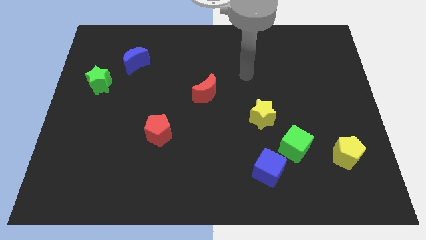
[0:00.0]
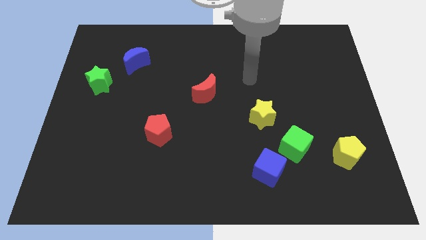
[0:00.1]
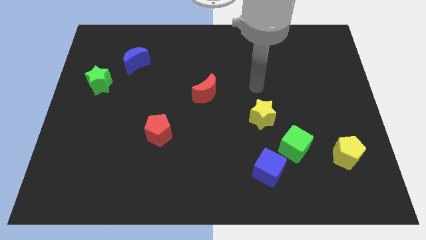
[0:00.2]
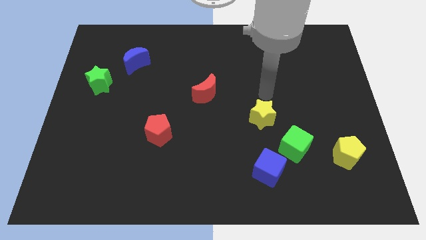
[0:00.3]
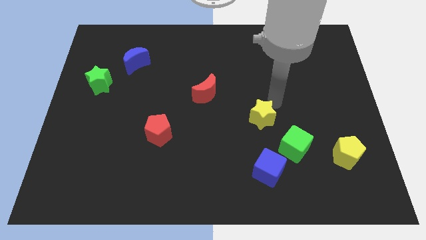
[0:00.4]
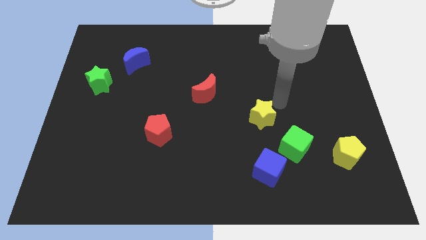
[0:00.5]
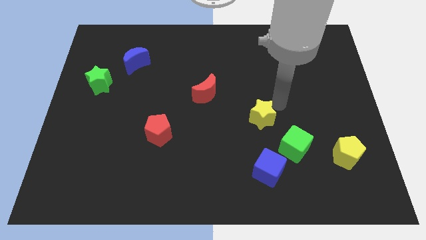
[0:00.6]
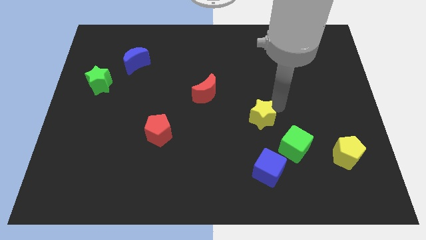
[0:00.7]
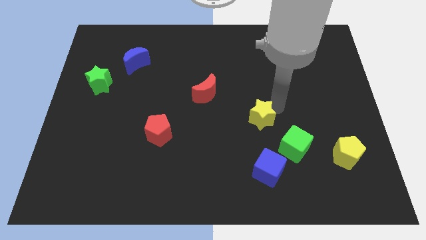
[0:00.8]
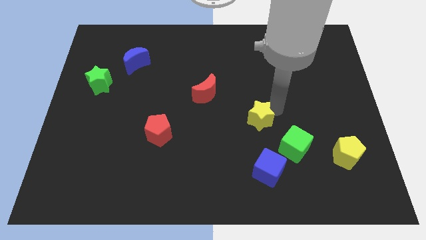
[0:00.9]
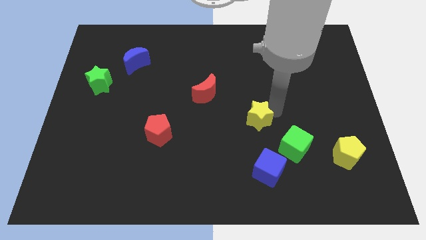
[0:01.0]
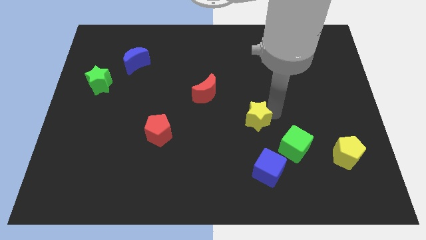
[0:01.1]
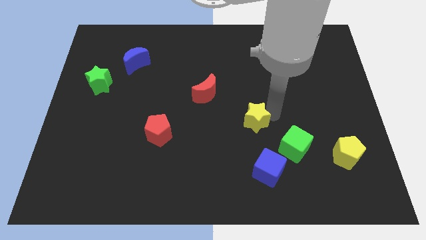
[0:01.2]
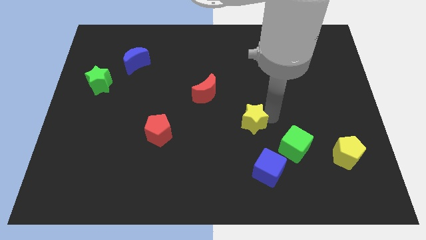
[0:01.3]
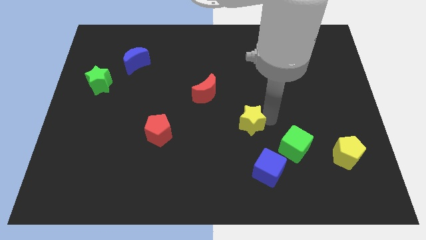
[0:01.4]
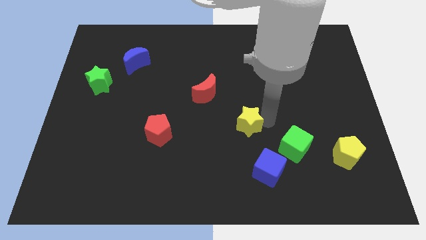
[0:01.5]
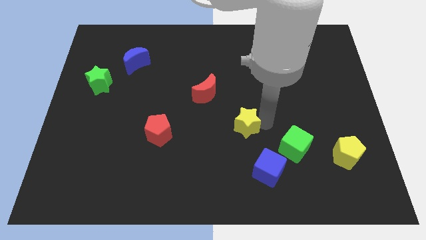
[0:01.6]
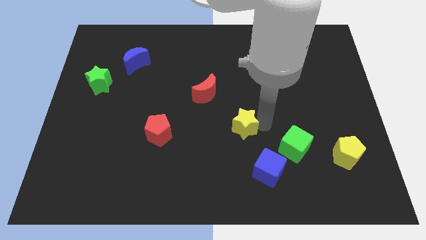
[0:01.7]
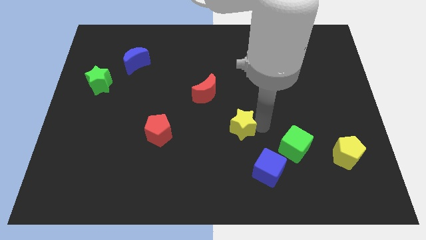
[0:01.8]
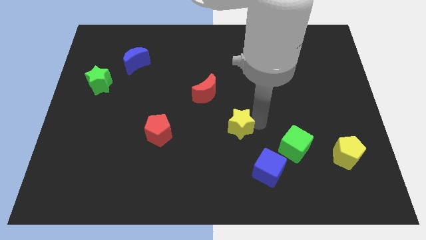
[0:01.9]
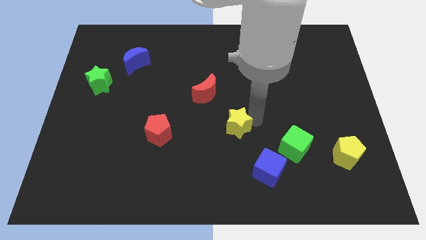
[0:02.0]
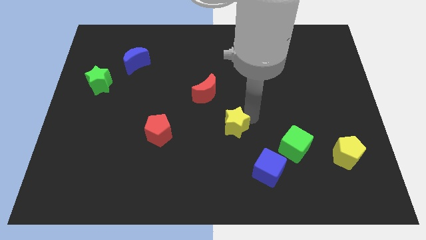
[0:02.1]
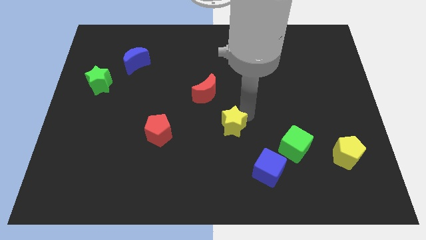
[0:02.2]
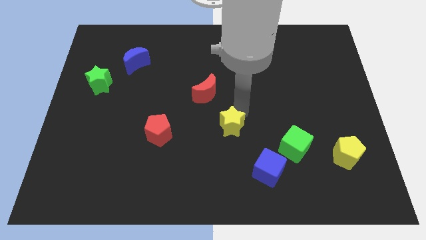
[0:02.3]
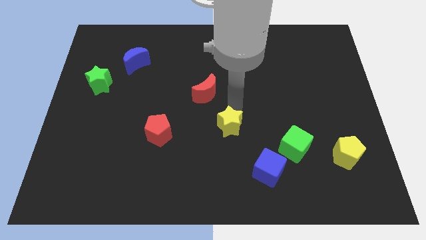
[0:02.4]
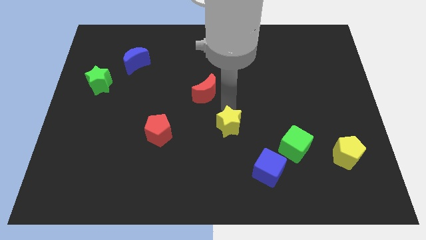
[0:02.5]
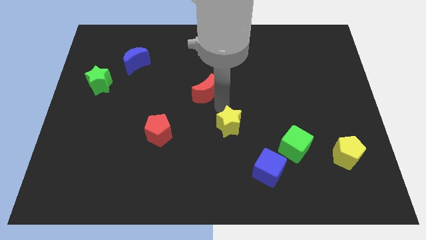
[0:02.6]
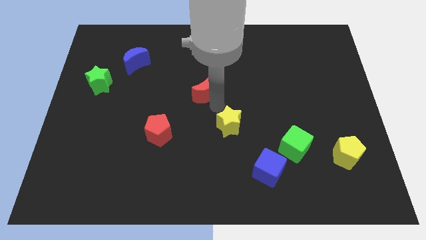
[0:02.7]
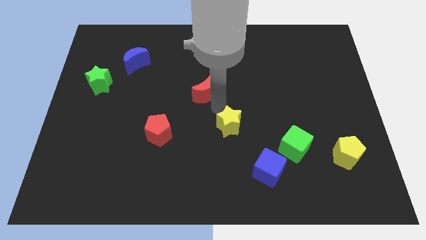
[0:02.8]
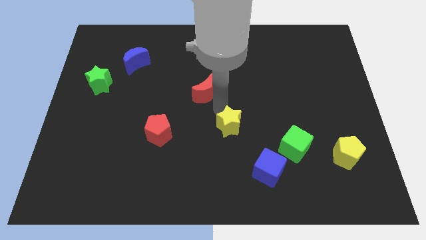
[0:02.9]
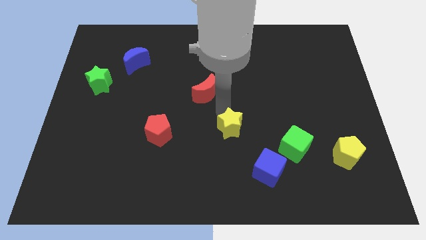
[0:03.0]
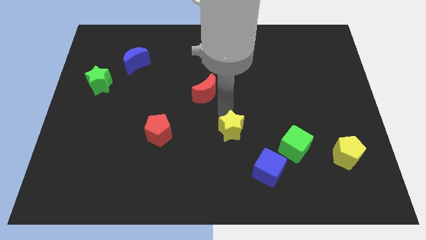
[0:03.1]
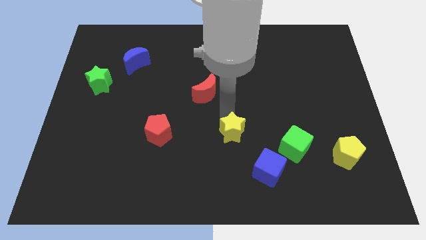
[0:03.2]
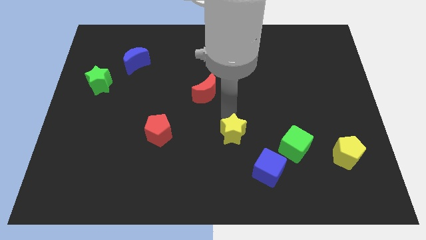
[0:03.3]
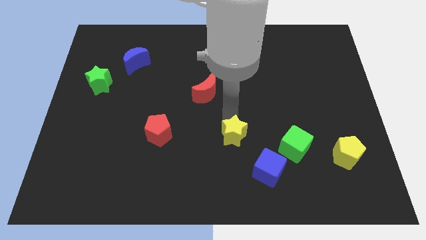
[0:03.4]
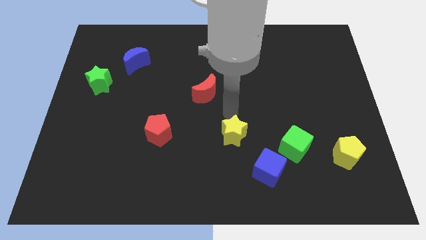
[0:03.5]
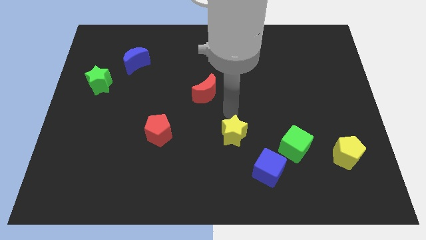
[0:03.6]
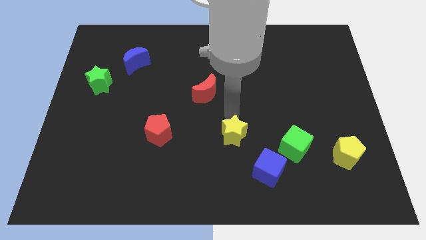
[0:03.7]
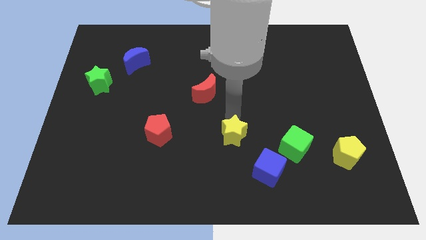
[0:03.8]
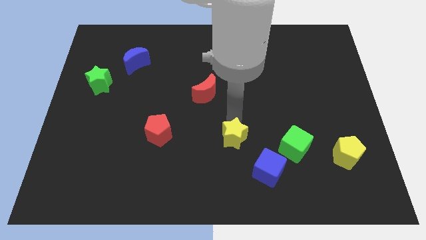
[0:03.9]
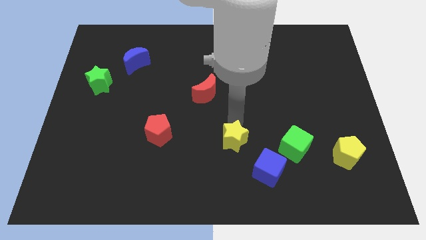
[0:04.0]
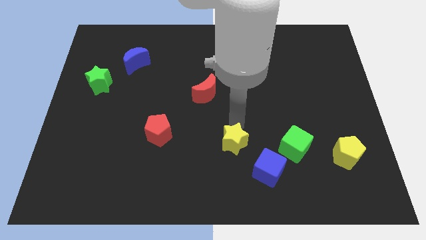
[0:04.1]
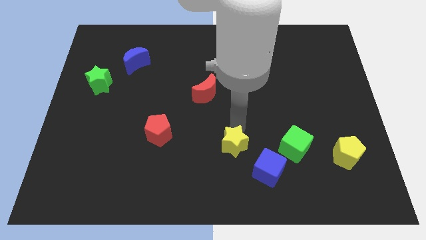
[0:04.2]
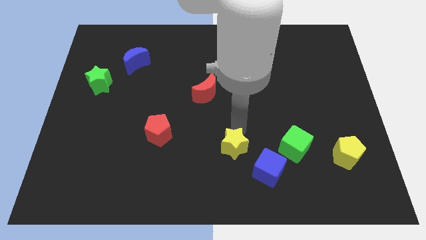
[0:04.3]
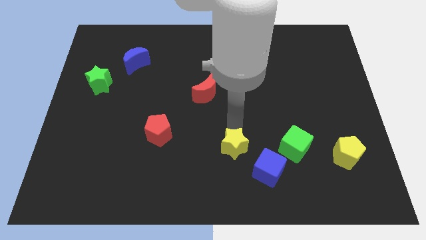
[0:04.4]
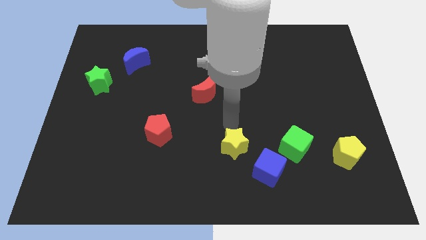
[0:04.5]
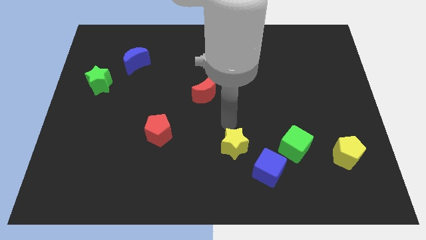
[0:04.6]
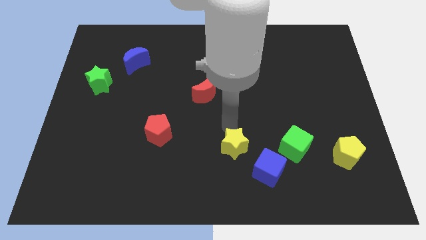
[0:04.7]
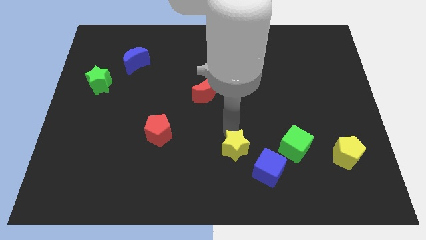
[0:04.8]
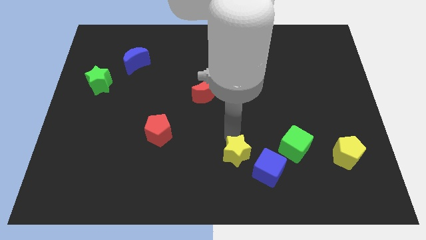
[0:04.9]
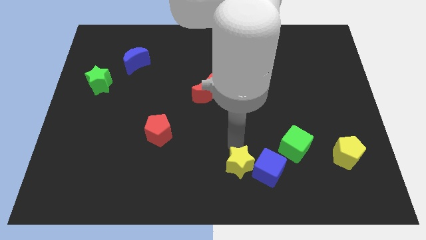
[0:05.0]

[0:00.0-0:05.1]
push the yellow star to the bottom side

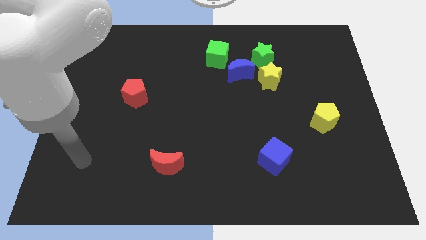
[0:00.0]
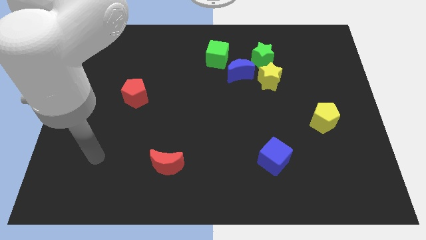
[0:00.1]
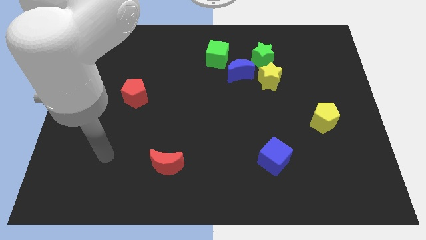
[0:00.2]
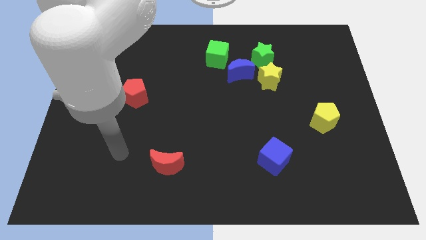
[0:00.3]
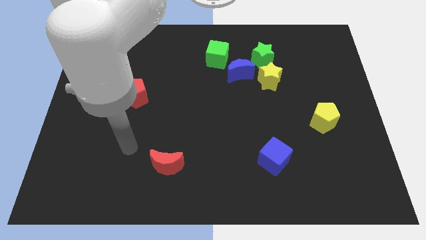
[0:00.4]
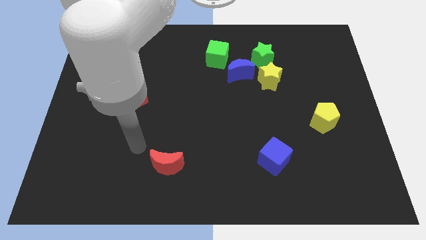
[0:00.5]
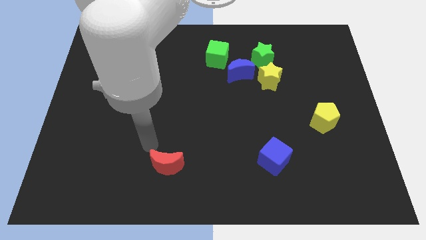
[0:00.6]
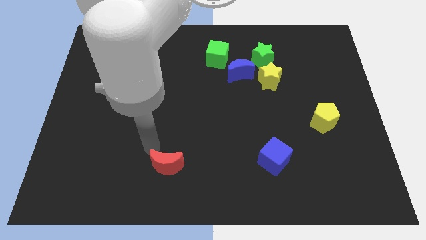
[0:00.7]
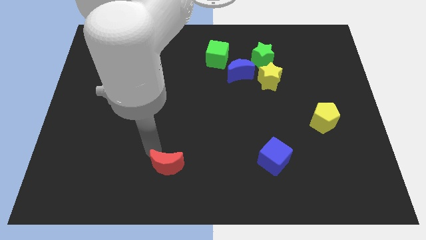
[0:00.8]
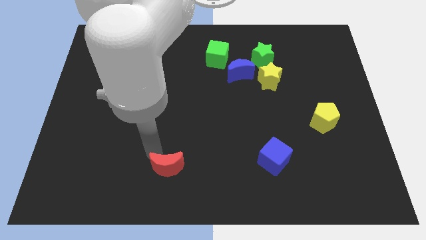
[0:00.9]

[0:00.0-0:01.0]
push the red moon to the bottom
